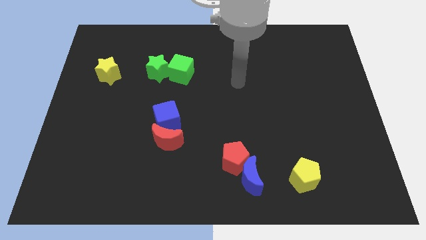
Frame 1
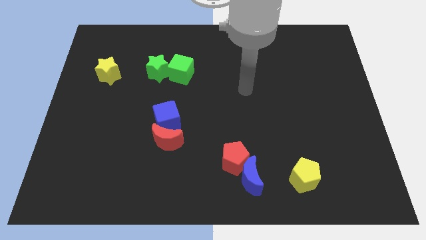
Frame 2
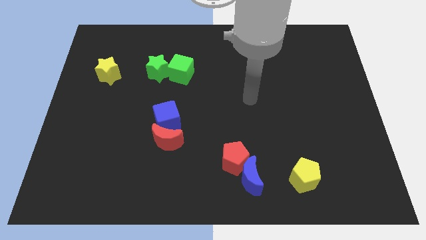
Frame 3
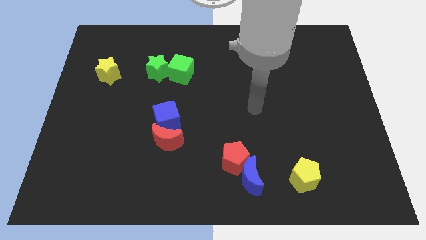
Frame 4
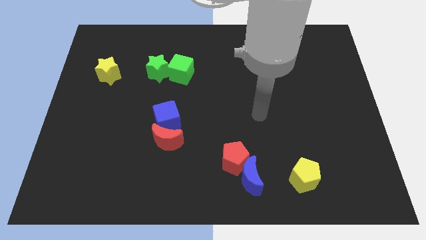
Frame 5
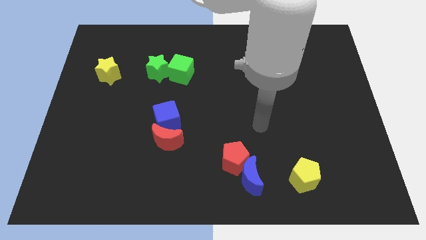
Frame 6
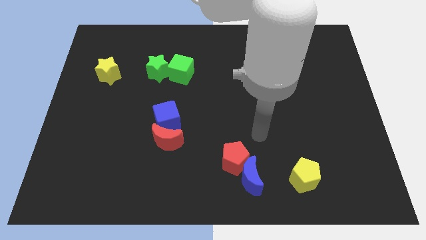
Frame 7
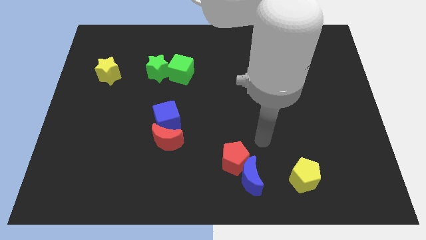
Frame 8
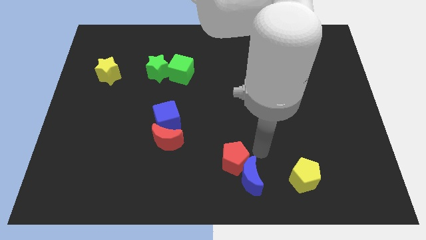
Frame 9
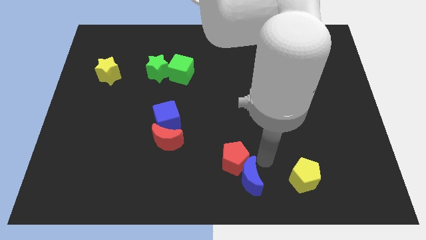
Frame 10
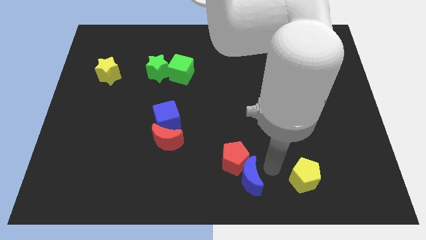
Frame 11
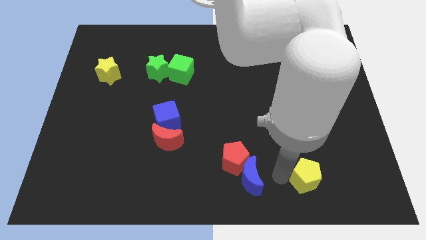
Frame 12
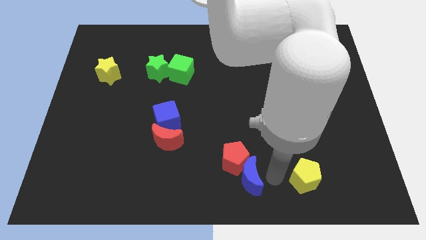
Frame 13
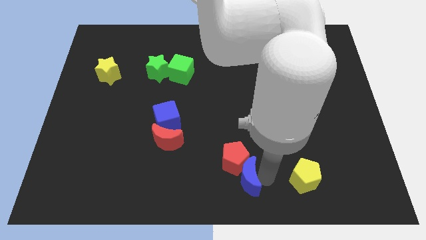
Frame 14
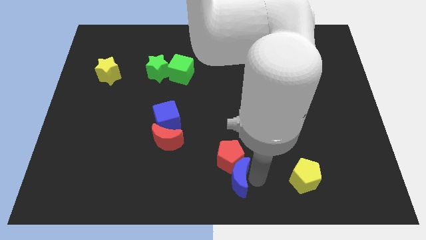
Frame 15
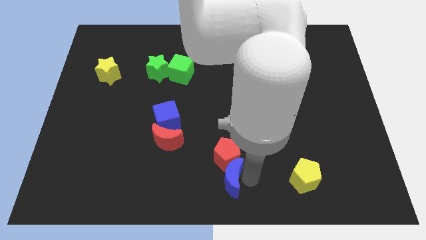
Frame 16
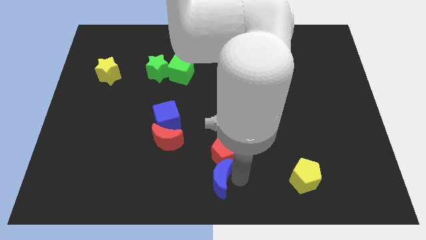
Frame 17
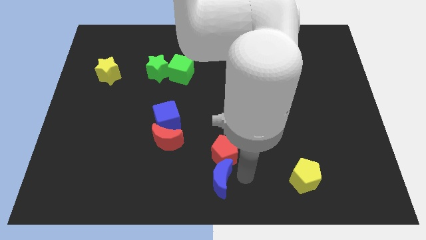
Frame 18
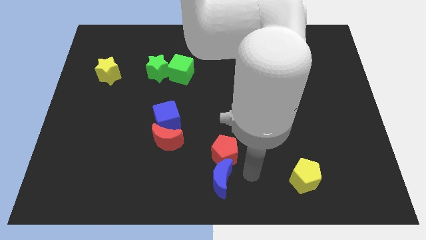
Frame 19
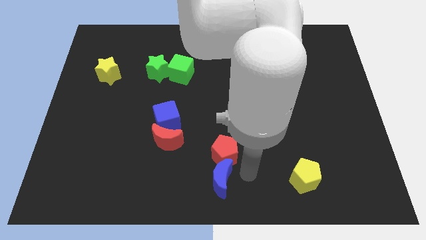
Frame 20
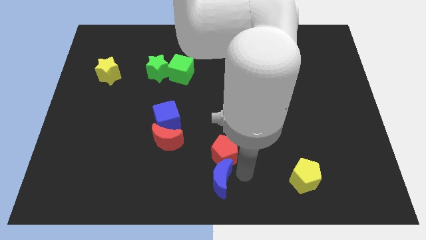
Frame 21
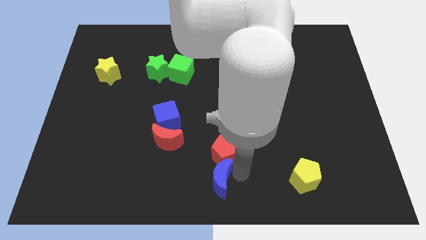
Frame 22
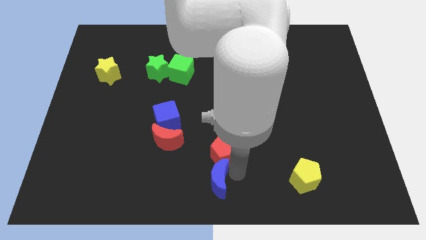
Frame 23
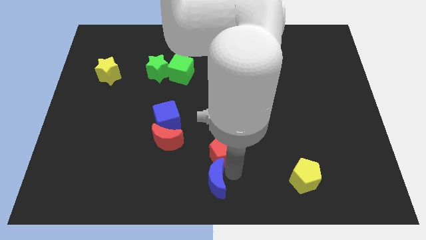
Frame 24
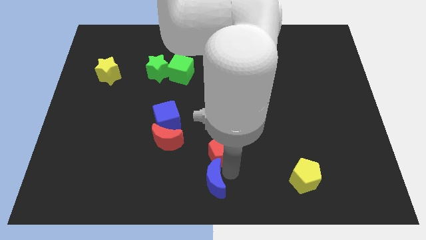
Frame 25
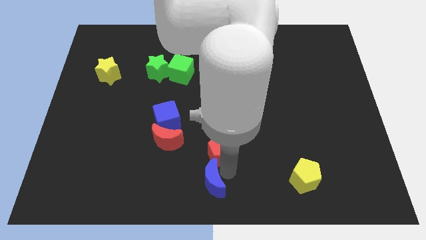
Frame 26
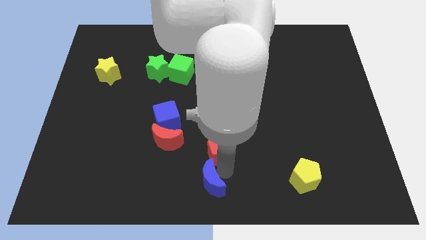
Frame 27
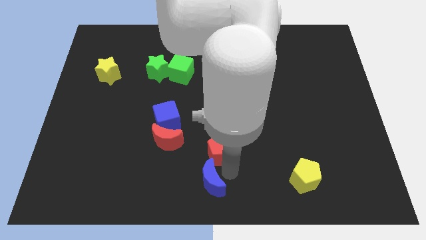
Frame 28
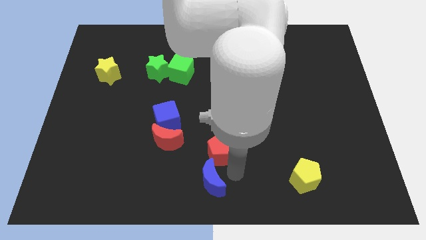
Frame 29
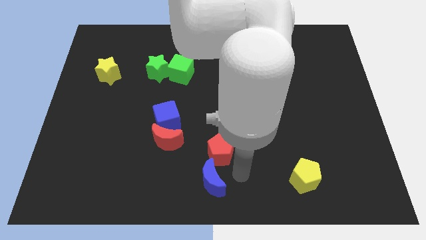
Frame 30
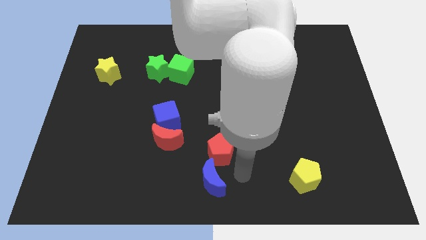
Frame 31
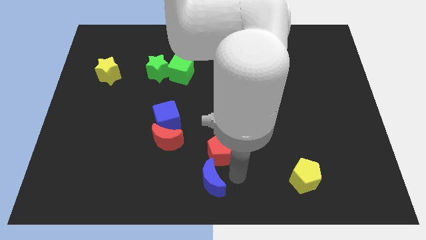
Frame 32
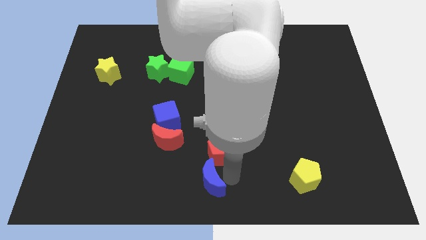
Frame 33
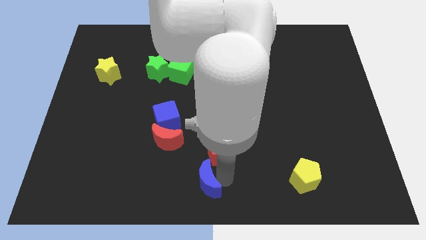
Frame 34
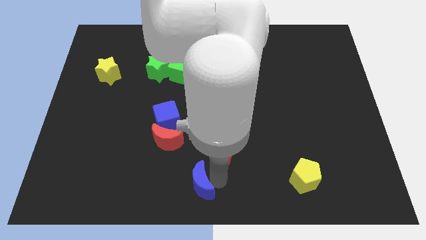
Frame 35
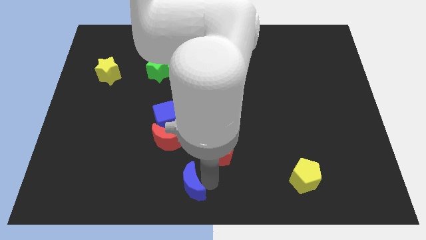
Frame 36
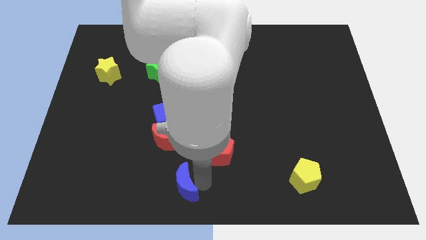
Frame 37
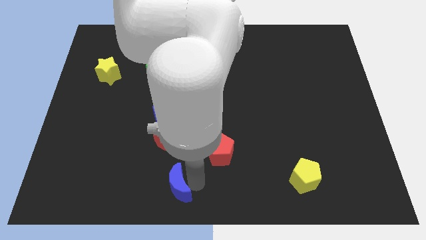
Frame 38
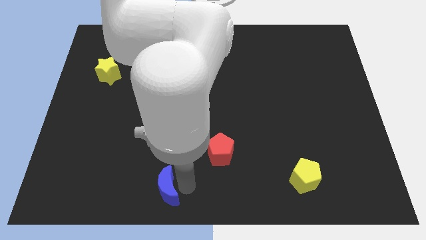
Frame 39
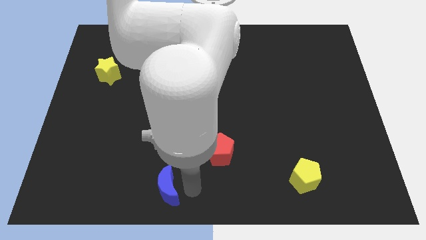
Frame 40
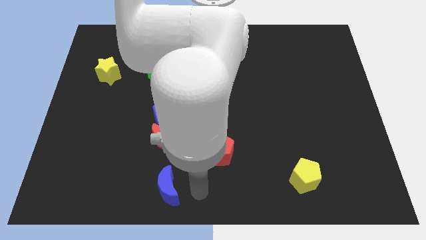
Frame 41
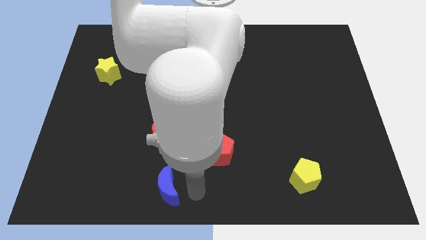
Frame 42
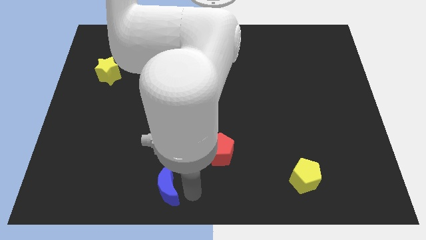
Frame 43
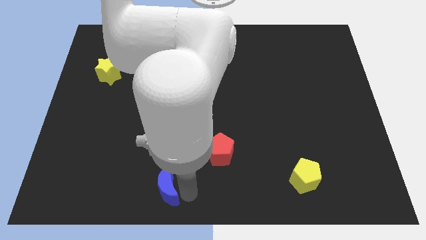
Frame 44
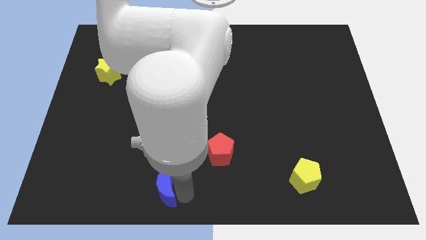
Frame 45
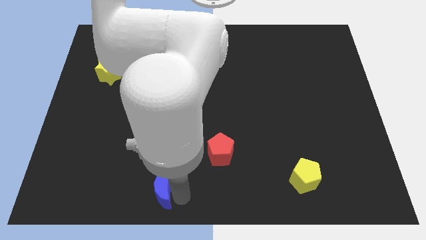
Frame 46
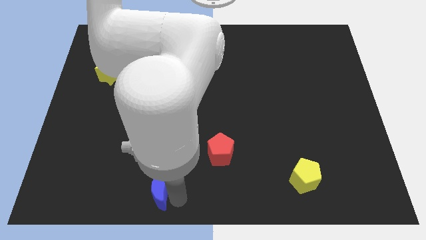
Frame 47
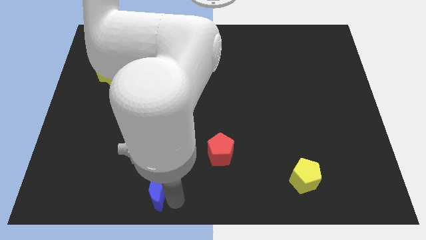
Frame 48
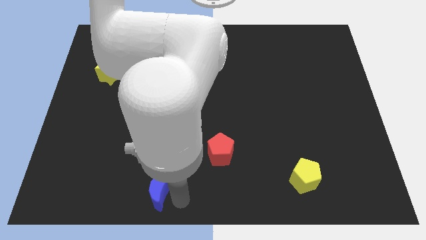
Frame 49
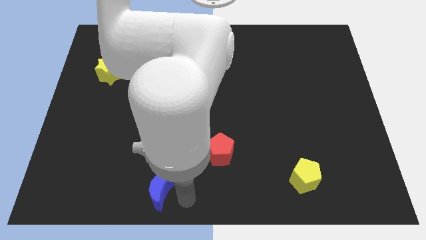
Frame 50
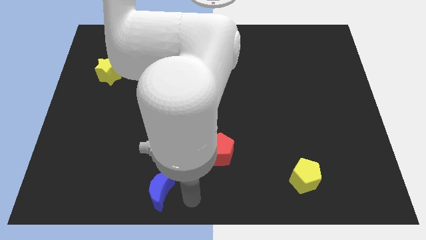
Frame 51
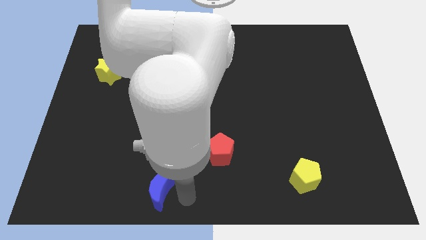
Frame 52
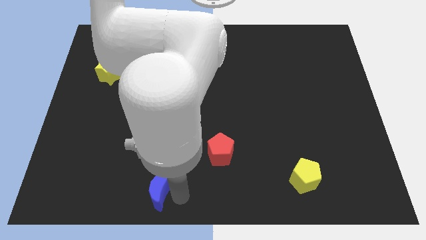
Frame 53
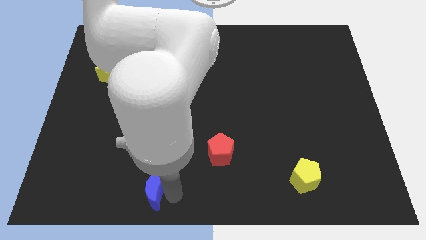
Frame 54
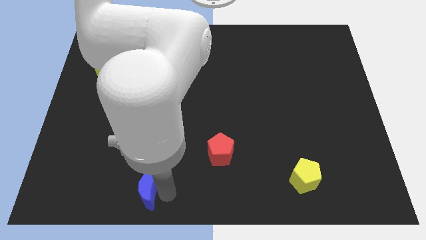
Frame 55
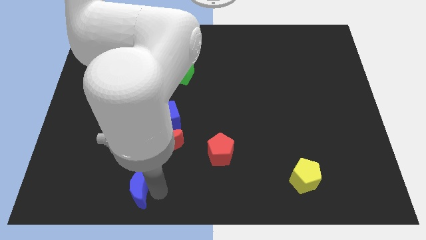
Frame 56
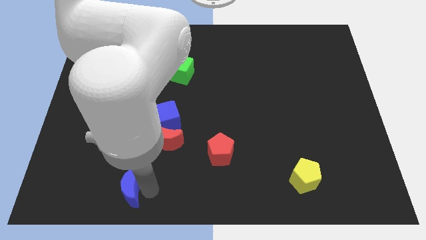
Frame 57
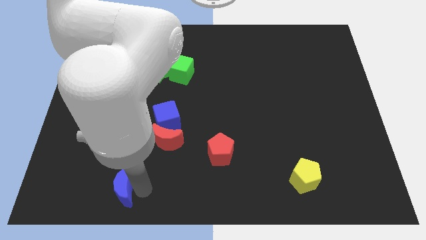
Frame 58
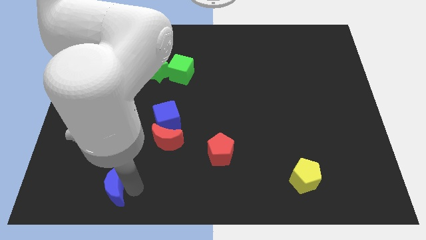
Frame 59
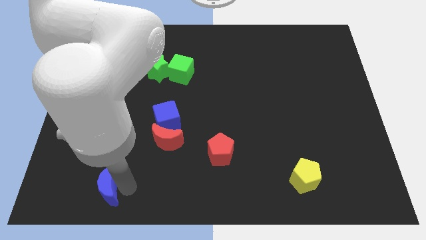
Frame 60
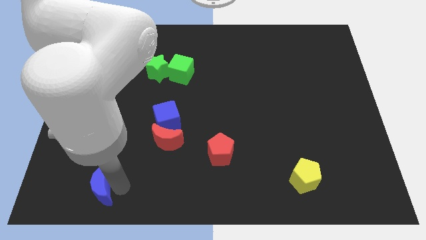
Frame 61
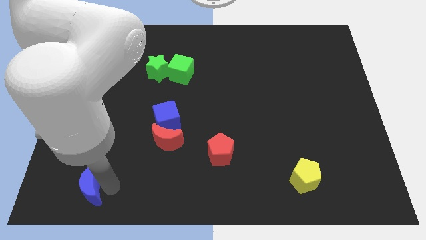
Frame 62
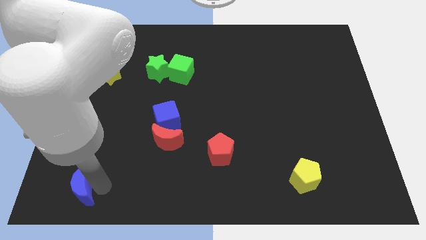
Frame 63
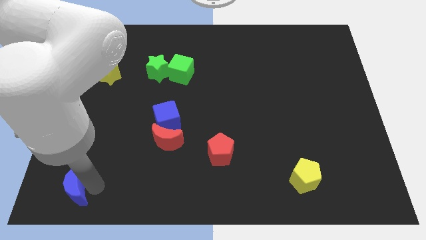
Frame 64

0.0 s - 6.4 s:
push the blue moon to the bottom left of the board
